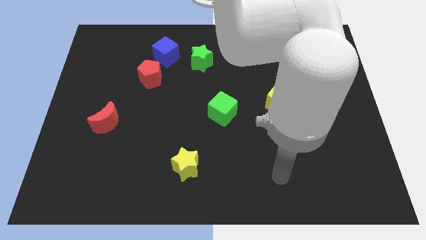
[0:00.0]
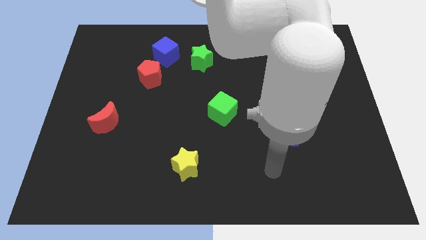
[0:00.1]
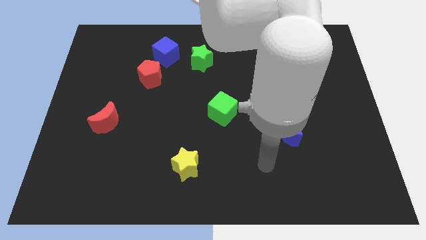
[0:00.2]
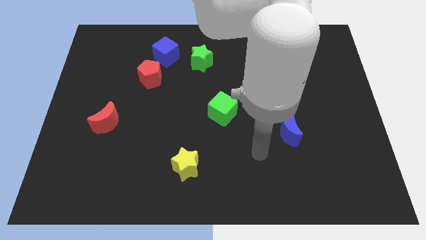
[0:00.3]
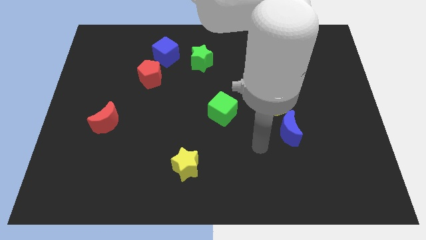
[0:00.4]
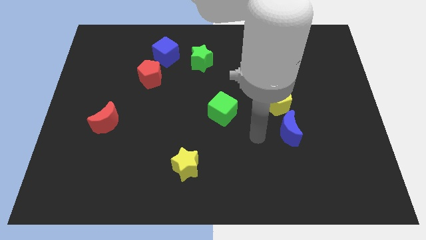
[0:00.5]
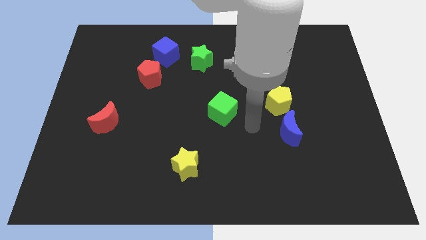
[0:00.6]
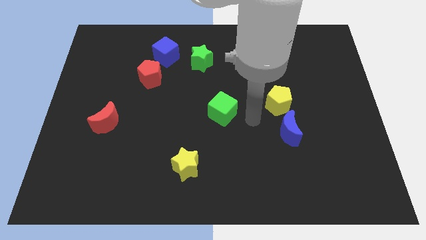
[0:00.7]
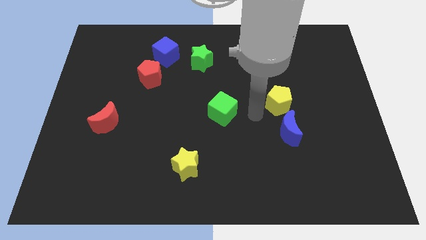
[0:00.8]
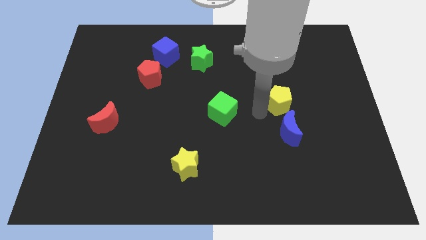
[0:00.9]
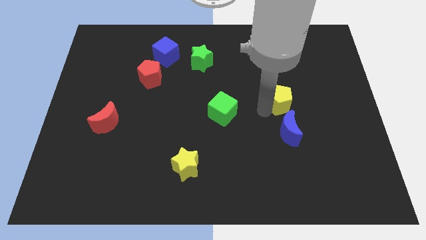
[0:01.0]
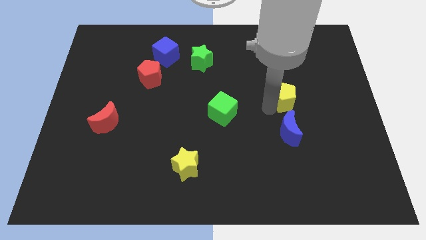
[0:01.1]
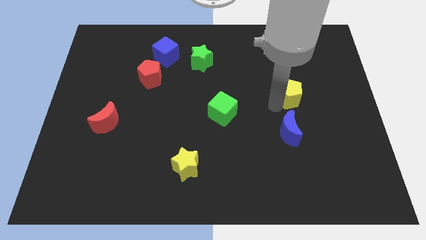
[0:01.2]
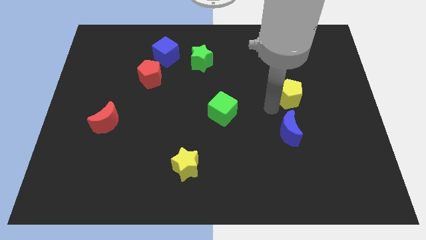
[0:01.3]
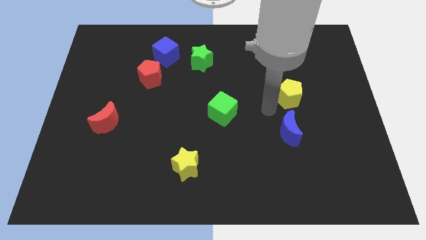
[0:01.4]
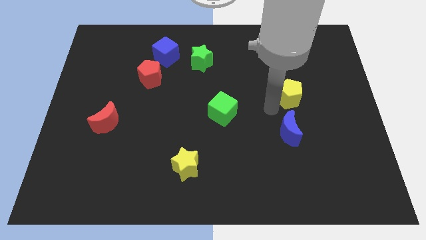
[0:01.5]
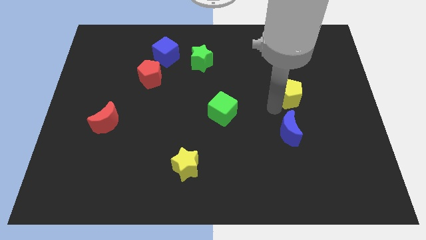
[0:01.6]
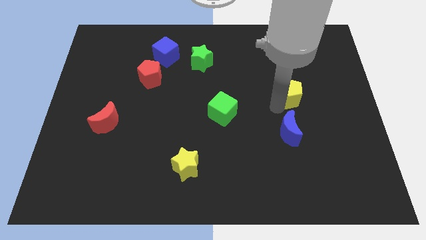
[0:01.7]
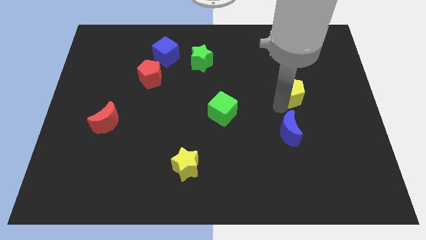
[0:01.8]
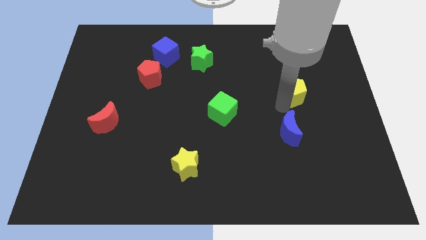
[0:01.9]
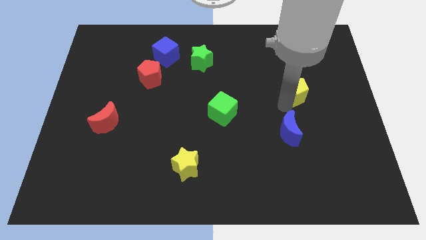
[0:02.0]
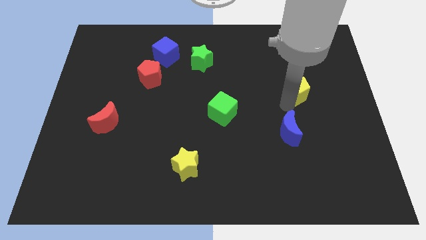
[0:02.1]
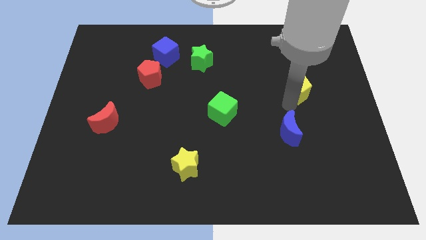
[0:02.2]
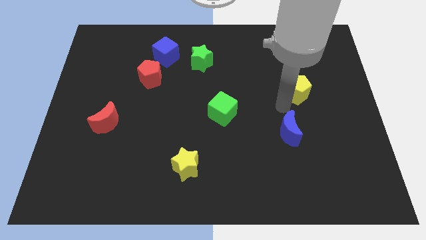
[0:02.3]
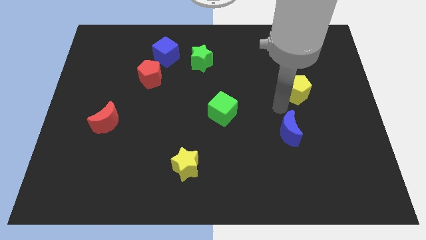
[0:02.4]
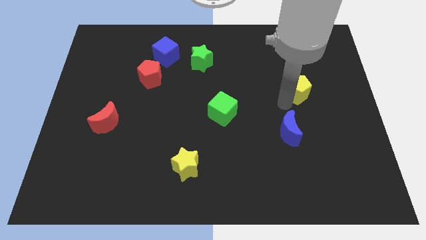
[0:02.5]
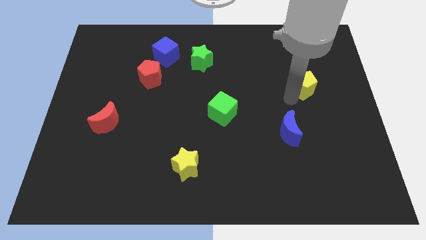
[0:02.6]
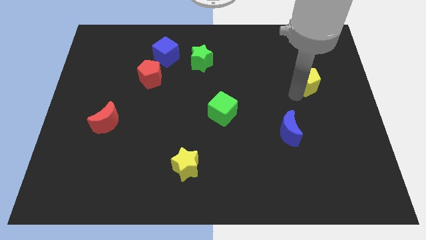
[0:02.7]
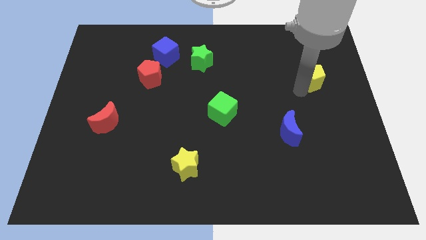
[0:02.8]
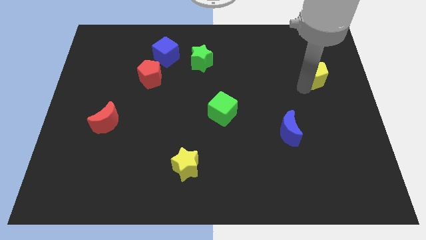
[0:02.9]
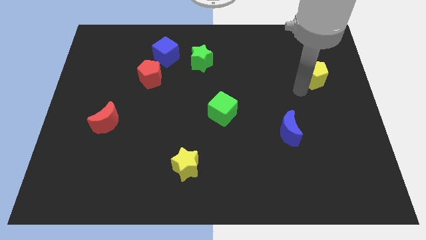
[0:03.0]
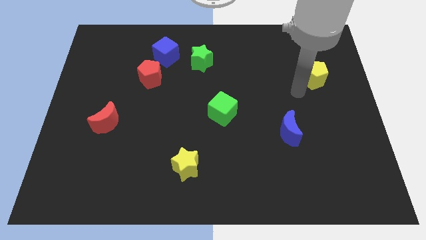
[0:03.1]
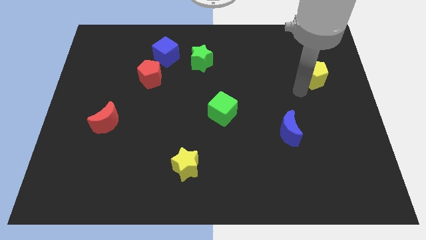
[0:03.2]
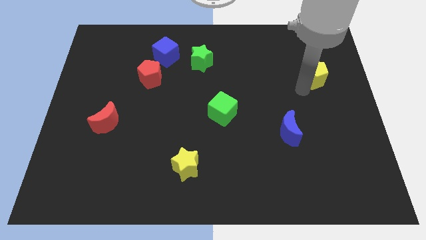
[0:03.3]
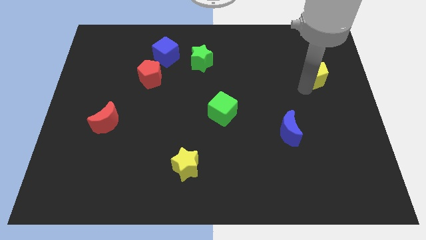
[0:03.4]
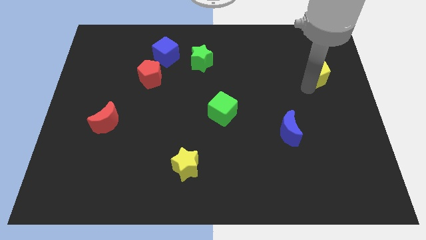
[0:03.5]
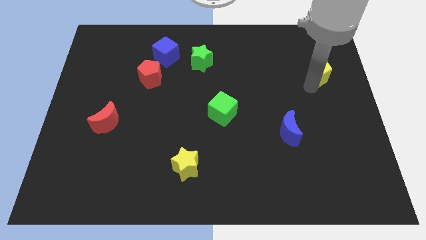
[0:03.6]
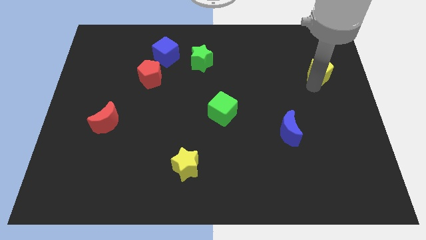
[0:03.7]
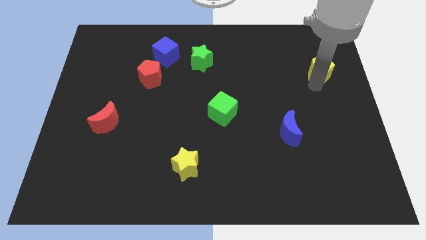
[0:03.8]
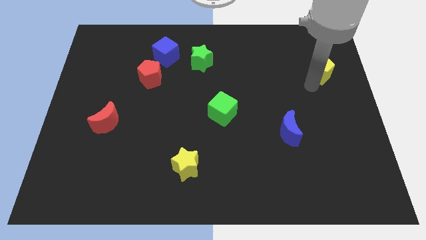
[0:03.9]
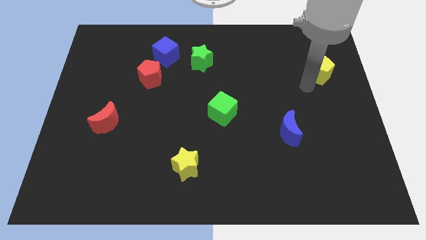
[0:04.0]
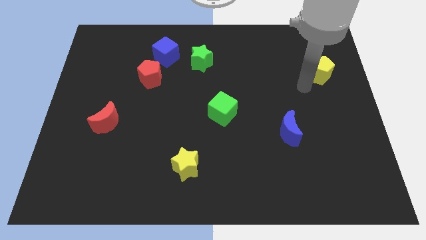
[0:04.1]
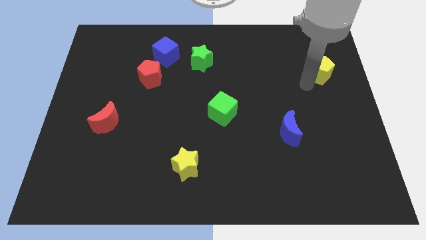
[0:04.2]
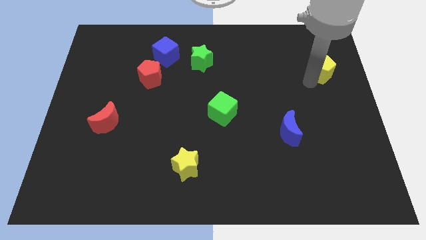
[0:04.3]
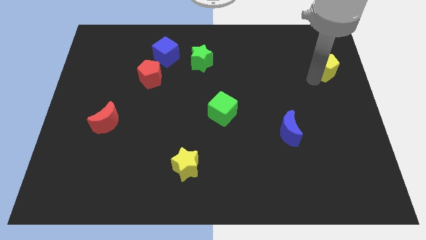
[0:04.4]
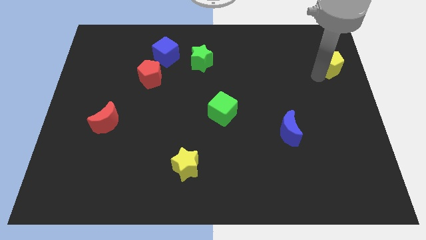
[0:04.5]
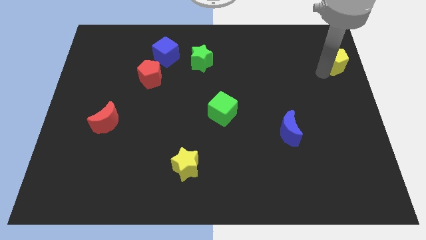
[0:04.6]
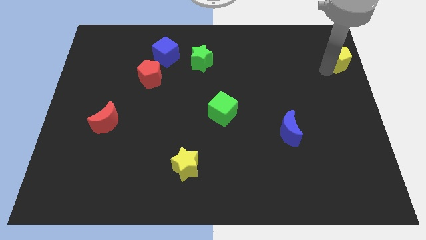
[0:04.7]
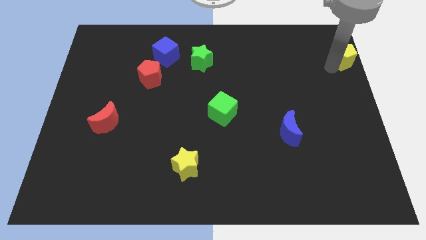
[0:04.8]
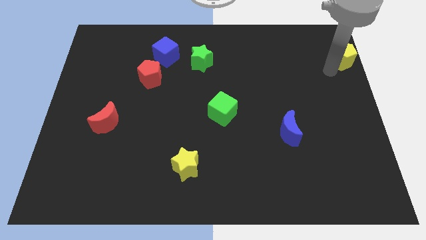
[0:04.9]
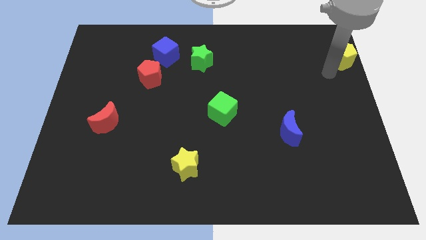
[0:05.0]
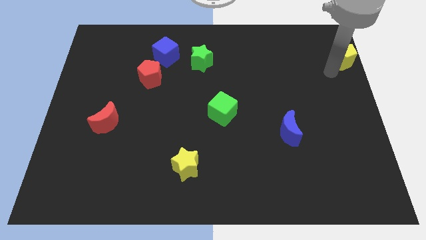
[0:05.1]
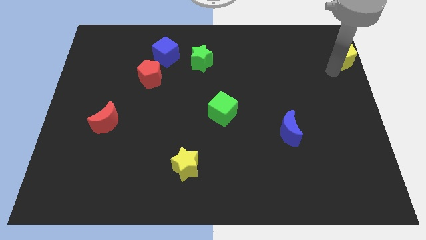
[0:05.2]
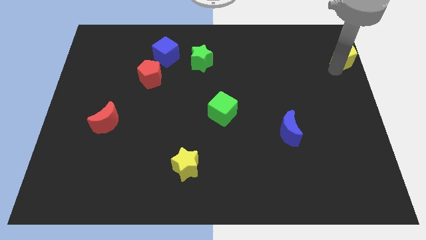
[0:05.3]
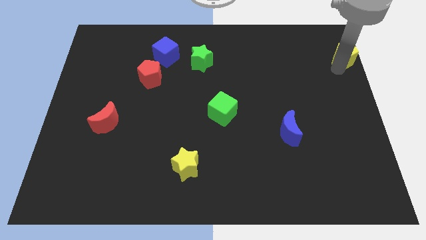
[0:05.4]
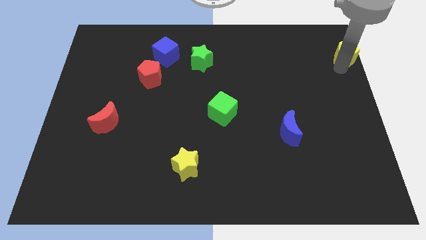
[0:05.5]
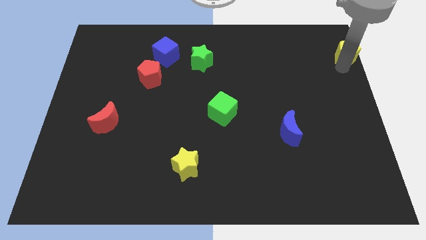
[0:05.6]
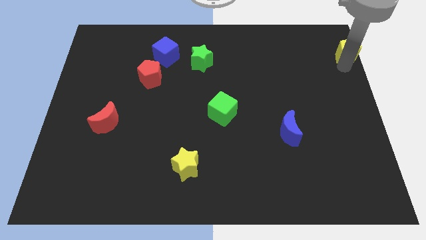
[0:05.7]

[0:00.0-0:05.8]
move the yellow pentagon to the upper right corner
